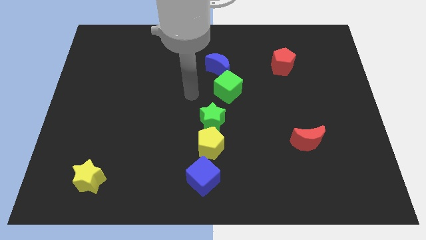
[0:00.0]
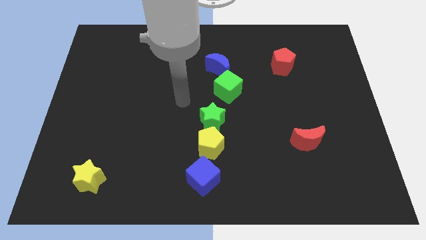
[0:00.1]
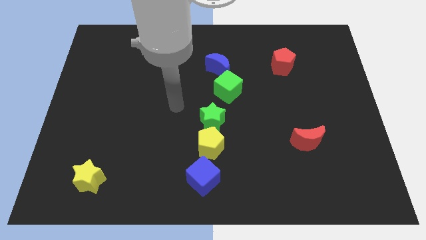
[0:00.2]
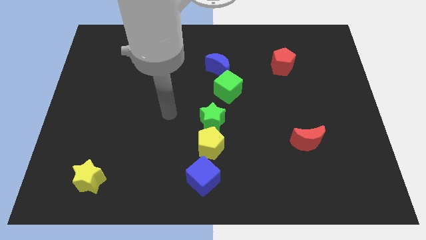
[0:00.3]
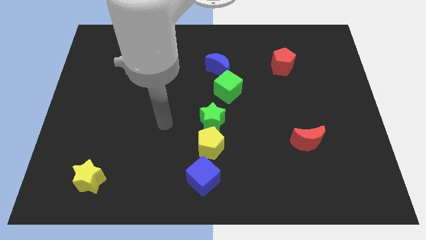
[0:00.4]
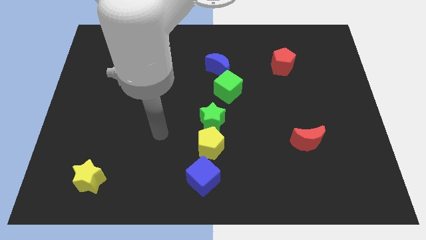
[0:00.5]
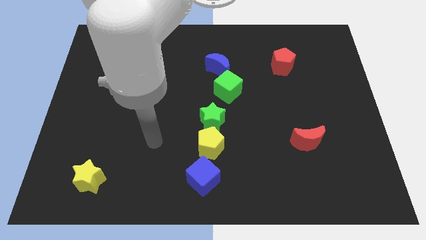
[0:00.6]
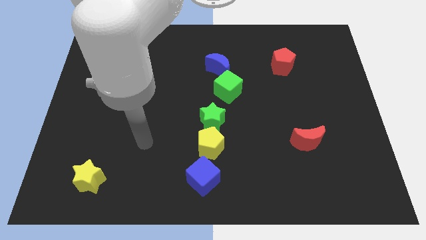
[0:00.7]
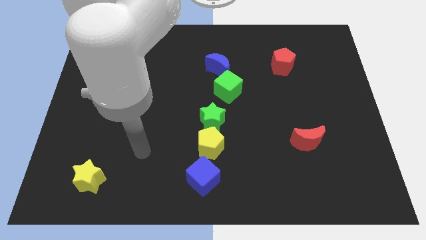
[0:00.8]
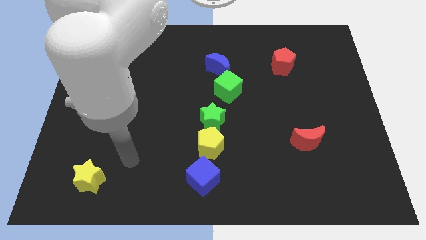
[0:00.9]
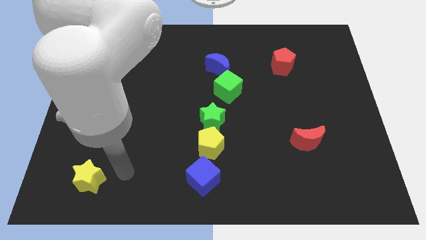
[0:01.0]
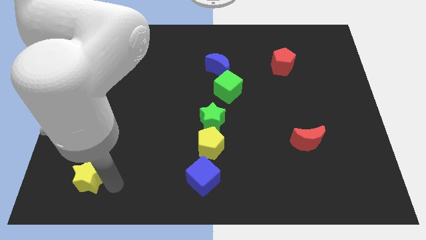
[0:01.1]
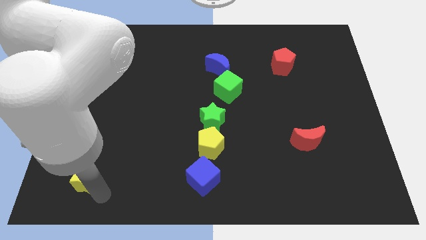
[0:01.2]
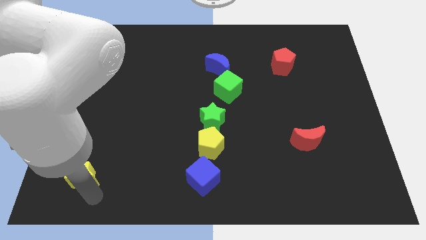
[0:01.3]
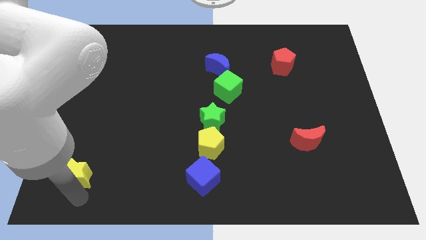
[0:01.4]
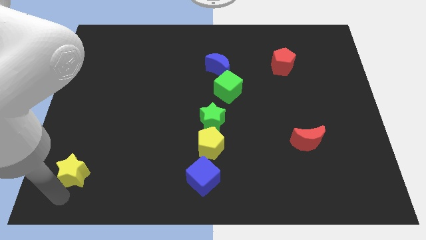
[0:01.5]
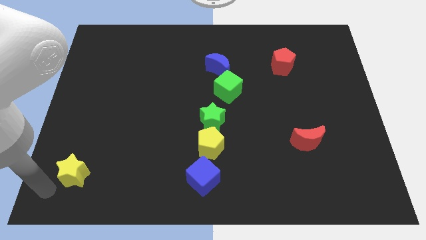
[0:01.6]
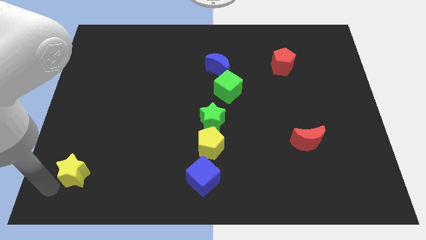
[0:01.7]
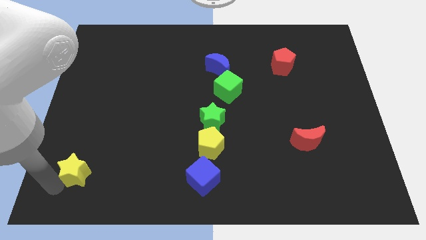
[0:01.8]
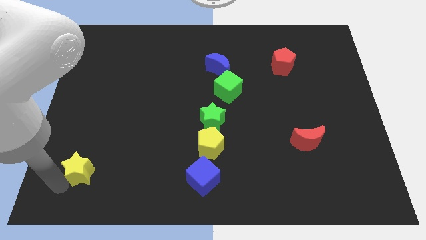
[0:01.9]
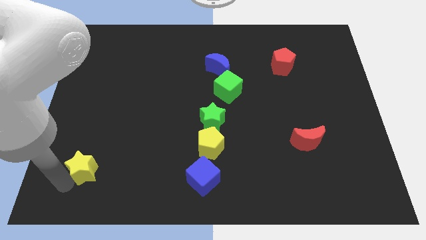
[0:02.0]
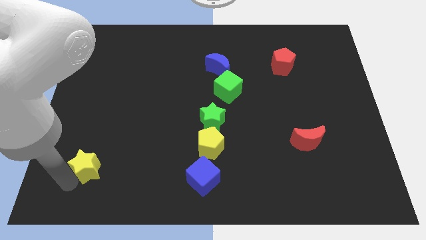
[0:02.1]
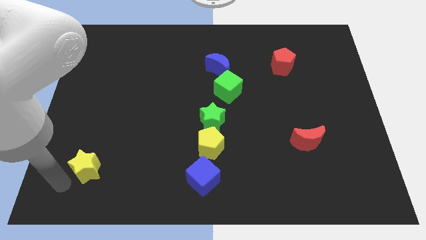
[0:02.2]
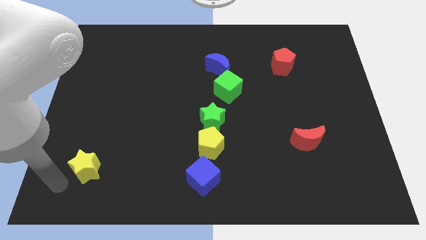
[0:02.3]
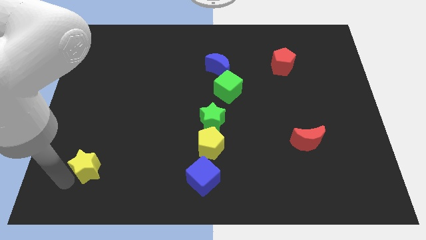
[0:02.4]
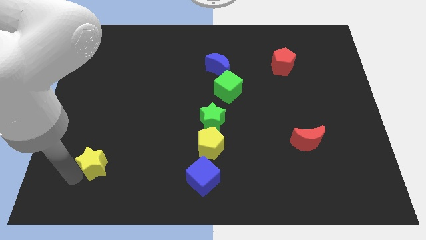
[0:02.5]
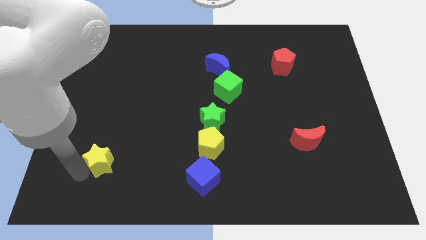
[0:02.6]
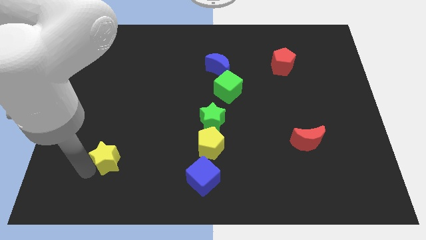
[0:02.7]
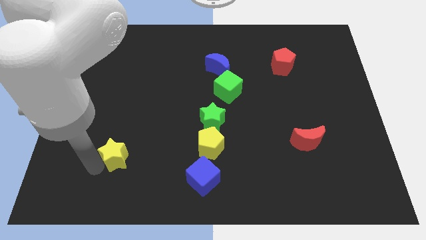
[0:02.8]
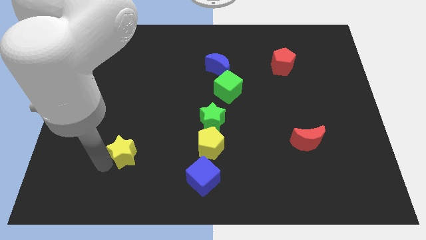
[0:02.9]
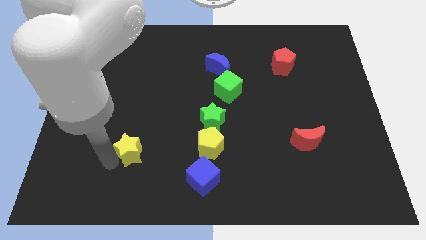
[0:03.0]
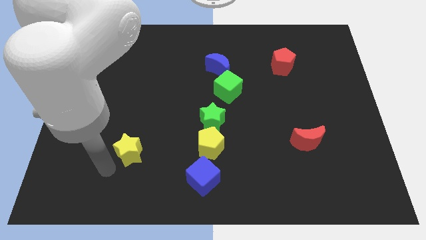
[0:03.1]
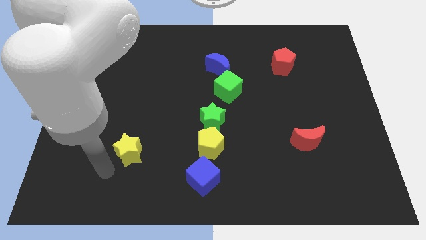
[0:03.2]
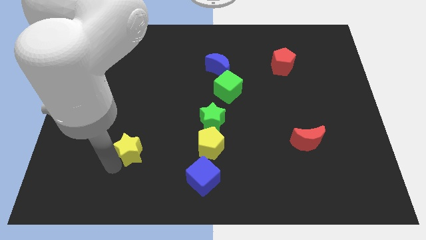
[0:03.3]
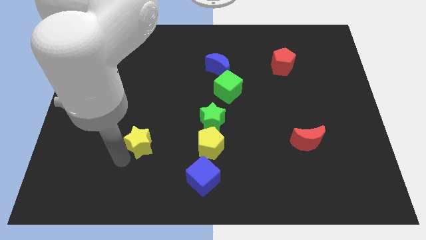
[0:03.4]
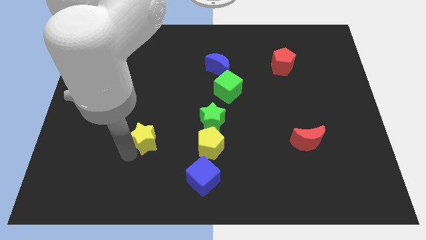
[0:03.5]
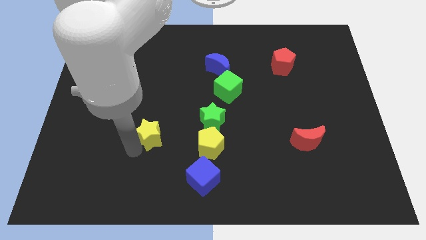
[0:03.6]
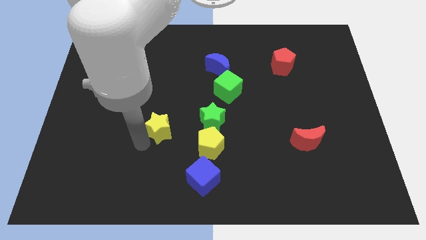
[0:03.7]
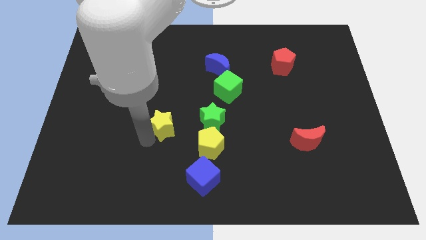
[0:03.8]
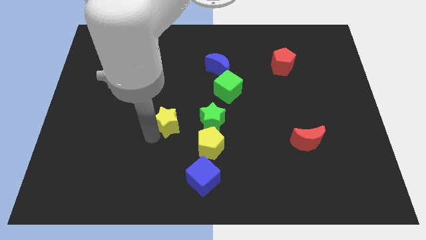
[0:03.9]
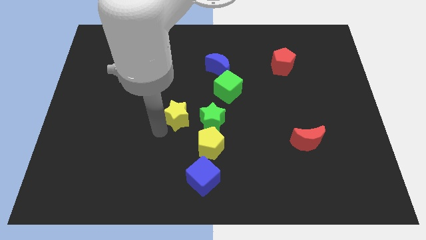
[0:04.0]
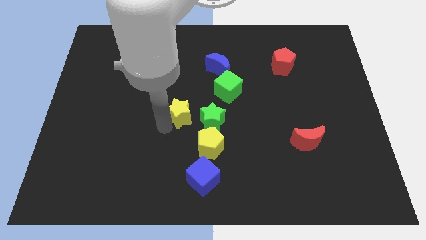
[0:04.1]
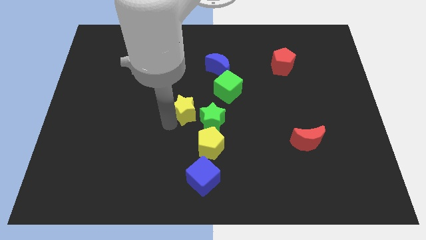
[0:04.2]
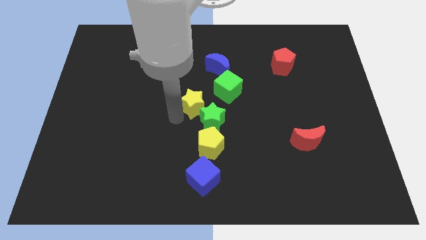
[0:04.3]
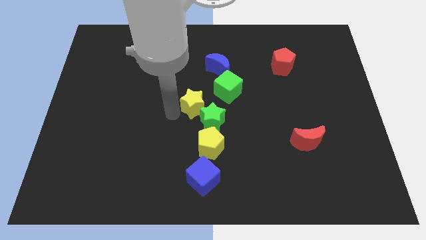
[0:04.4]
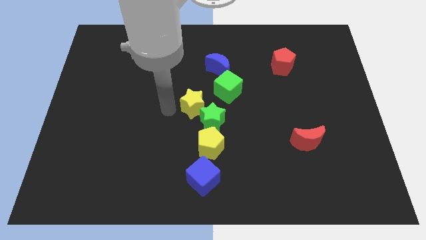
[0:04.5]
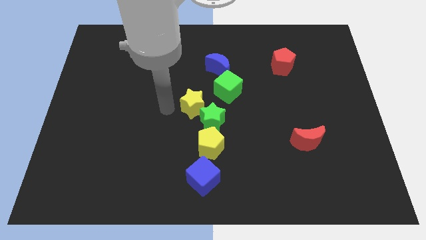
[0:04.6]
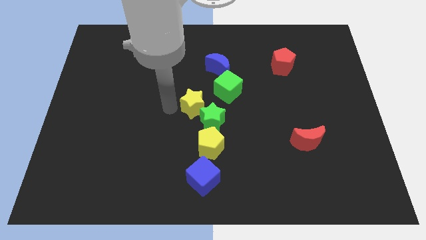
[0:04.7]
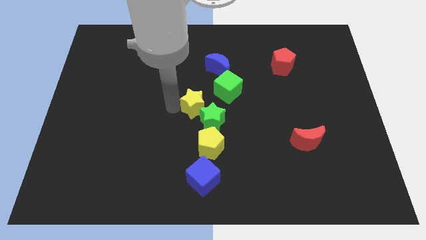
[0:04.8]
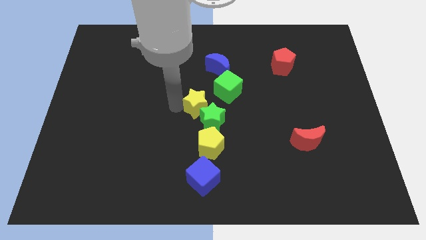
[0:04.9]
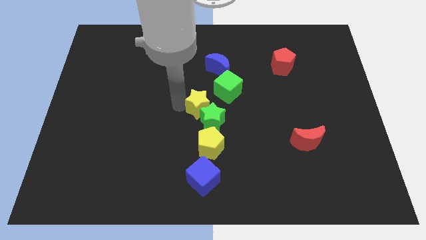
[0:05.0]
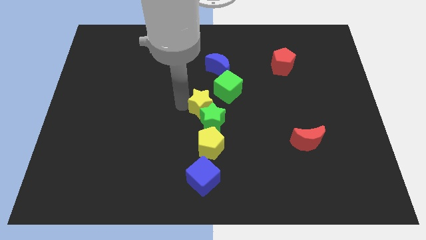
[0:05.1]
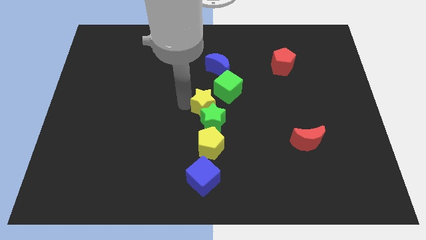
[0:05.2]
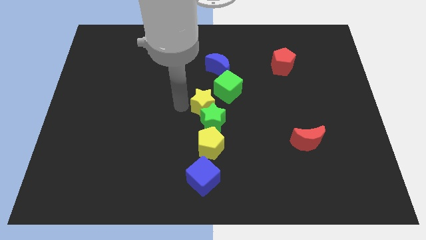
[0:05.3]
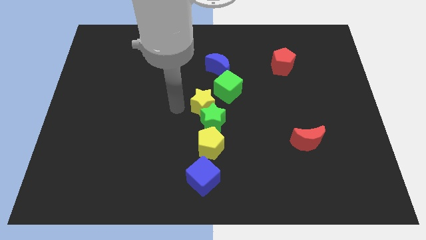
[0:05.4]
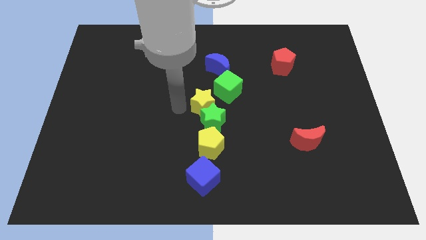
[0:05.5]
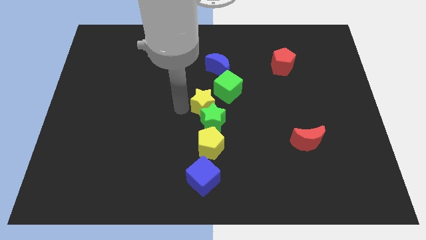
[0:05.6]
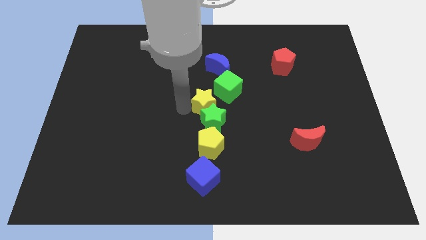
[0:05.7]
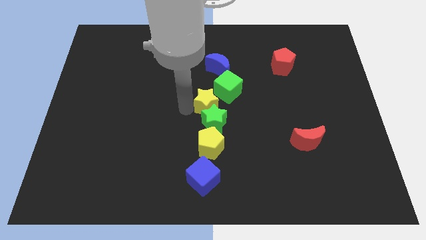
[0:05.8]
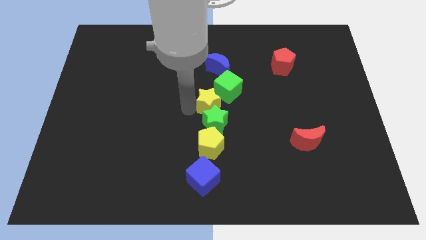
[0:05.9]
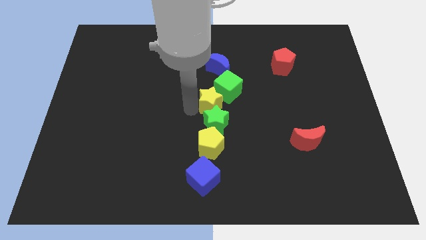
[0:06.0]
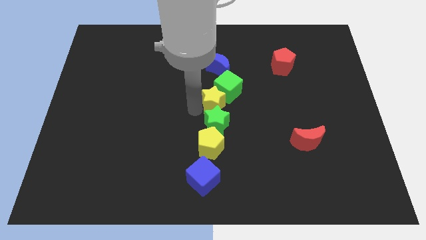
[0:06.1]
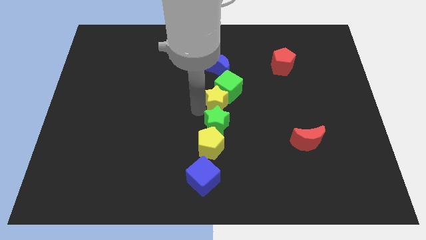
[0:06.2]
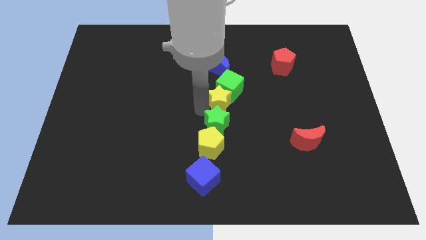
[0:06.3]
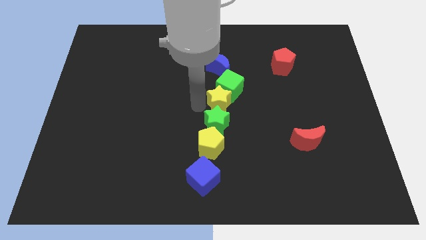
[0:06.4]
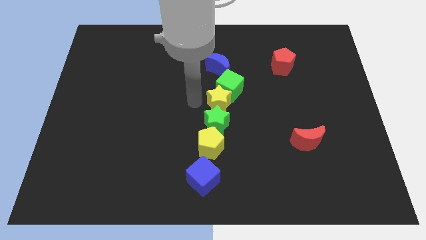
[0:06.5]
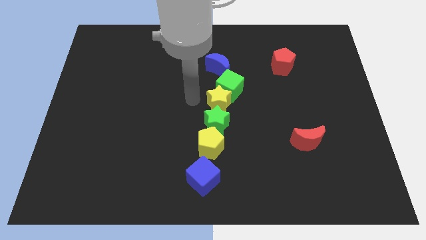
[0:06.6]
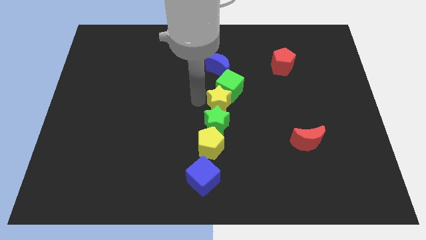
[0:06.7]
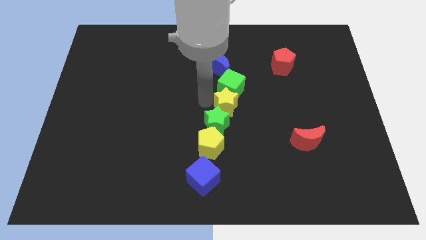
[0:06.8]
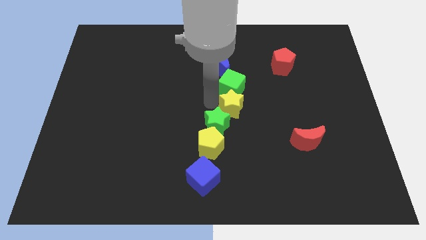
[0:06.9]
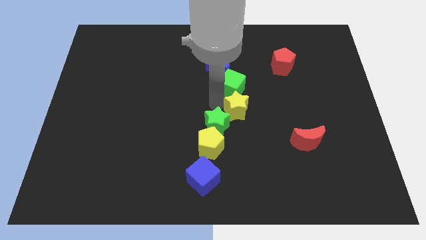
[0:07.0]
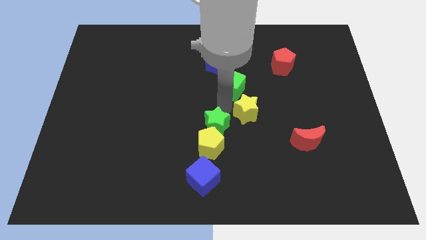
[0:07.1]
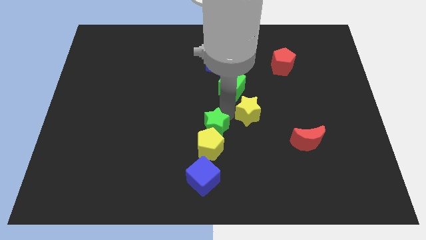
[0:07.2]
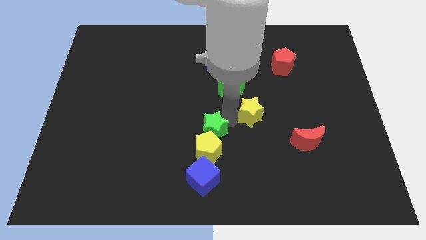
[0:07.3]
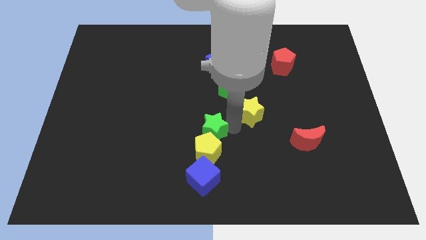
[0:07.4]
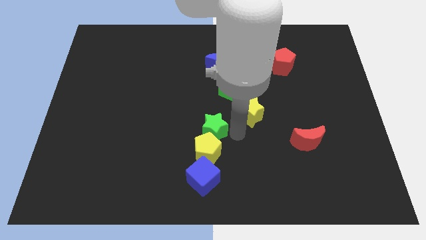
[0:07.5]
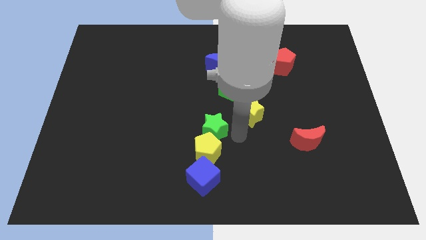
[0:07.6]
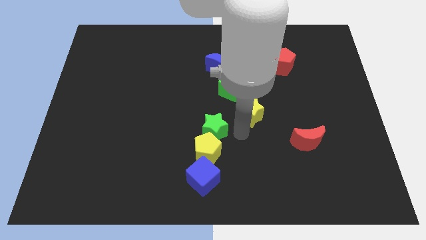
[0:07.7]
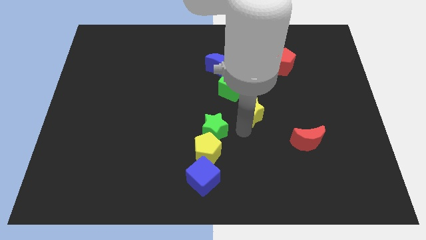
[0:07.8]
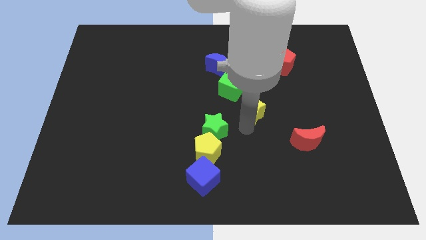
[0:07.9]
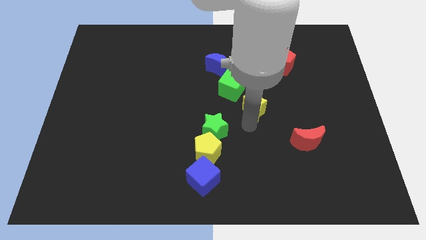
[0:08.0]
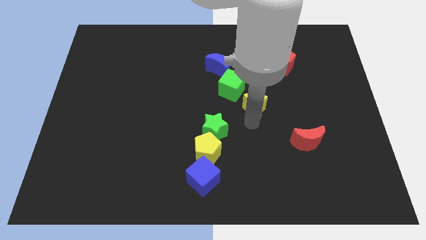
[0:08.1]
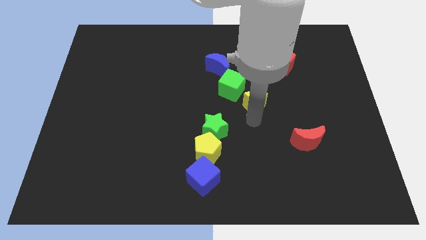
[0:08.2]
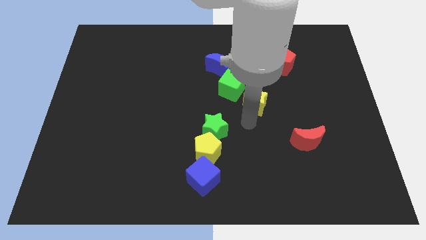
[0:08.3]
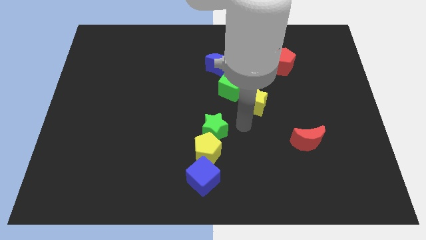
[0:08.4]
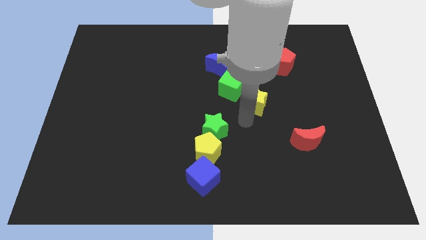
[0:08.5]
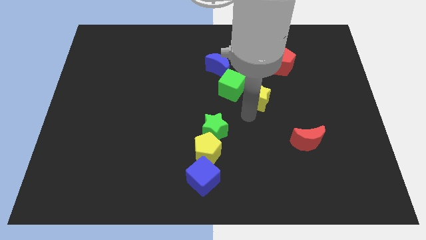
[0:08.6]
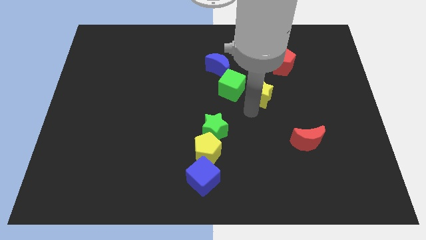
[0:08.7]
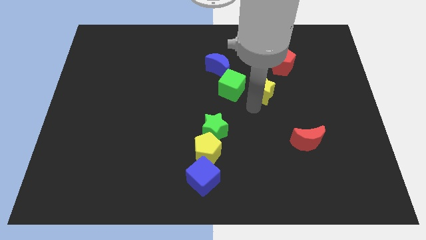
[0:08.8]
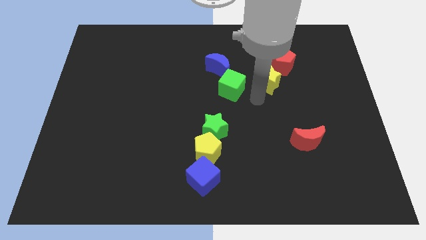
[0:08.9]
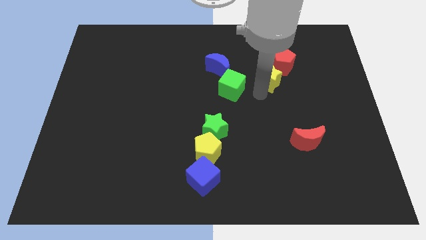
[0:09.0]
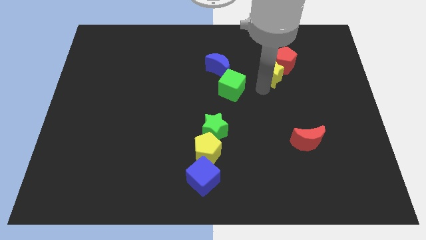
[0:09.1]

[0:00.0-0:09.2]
slide the yellow star towards the red pentagon
